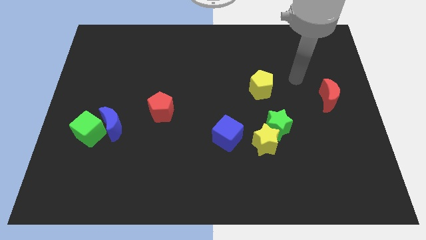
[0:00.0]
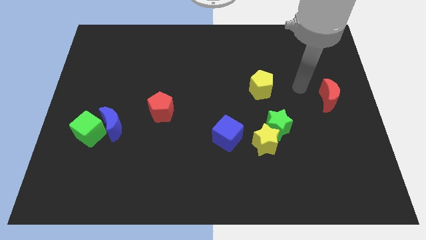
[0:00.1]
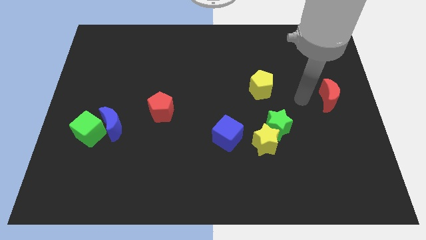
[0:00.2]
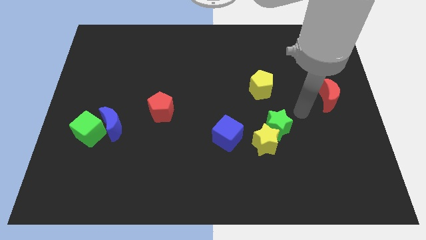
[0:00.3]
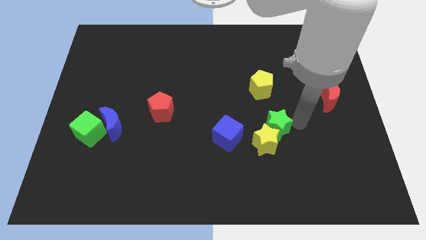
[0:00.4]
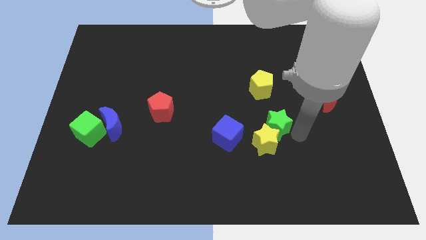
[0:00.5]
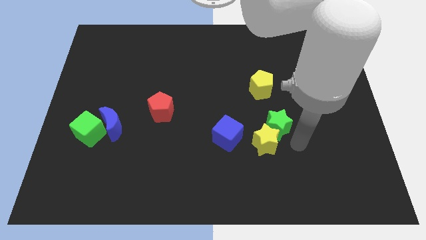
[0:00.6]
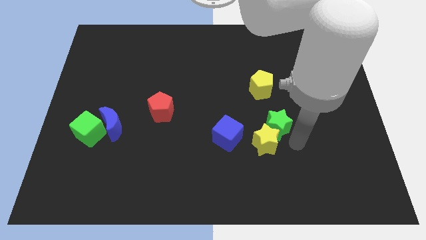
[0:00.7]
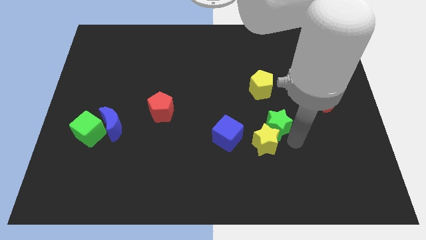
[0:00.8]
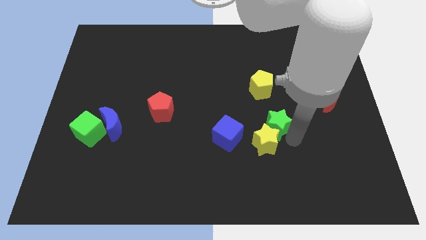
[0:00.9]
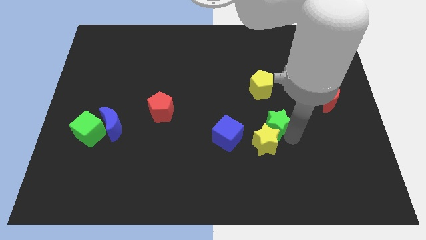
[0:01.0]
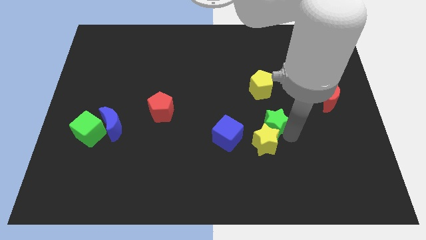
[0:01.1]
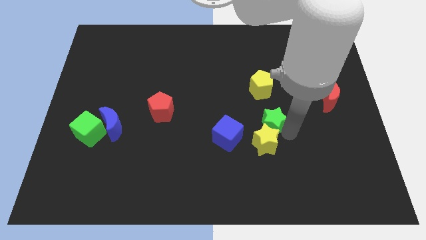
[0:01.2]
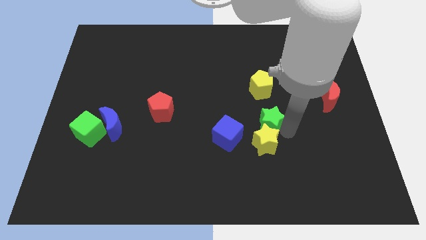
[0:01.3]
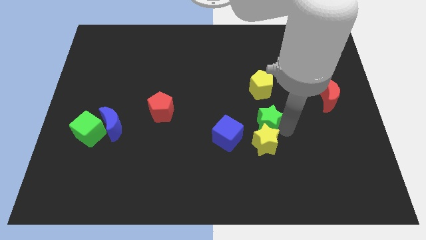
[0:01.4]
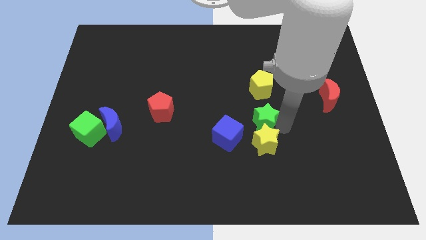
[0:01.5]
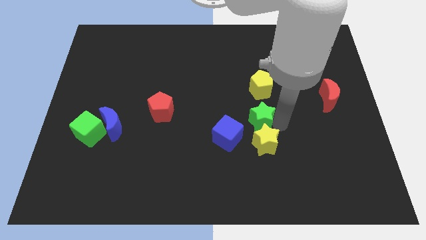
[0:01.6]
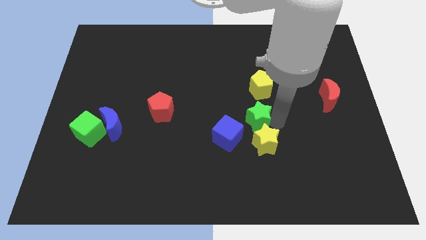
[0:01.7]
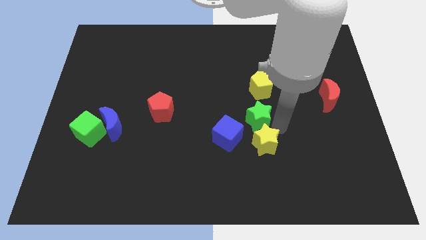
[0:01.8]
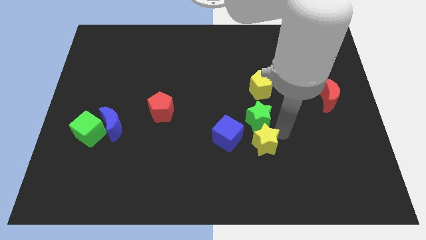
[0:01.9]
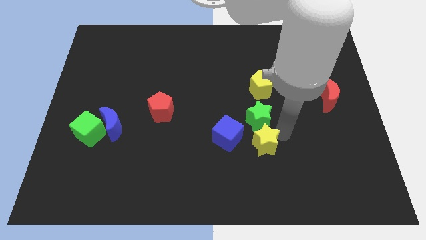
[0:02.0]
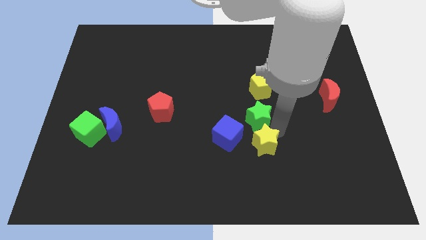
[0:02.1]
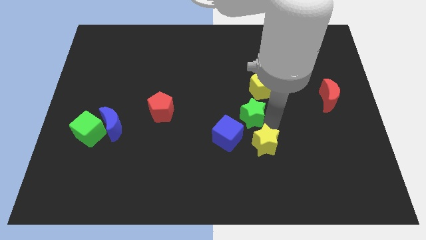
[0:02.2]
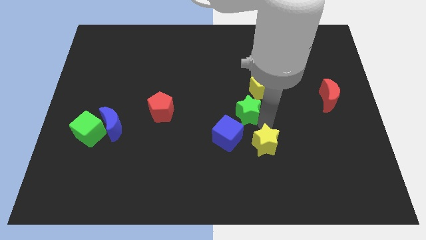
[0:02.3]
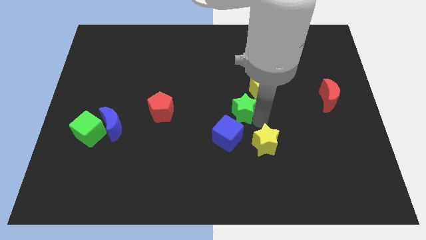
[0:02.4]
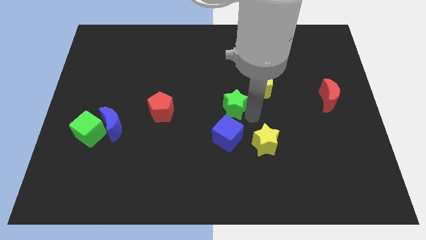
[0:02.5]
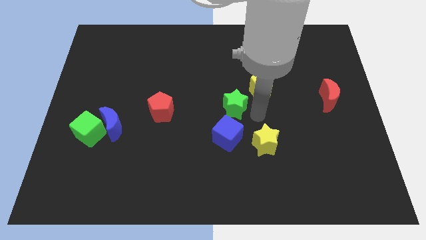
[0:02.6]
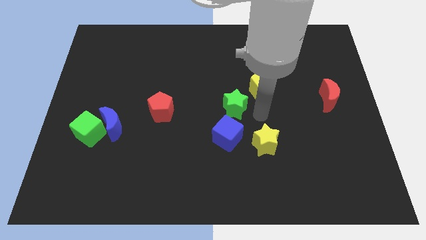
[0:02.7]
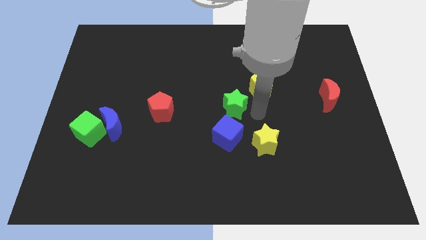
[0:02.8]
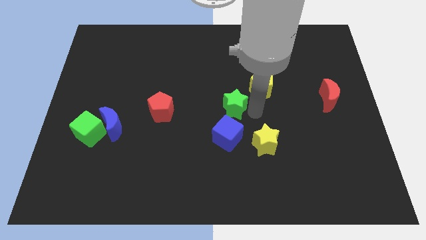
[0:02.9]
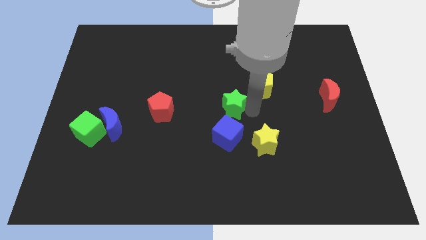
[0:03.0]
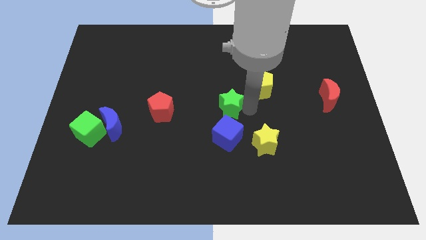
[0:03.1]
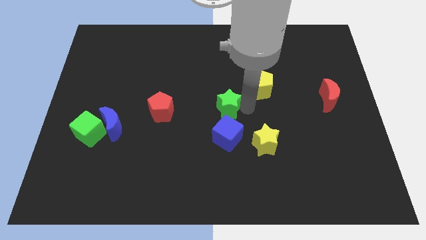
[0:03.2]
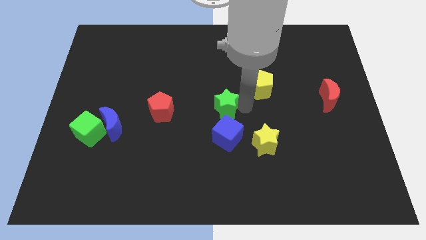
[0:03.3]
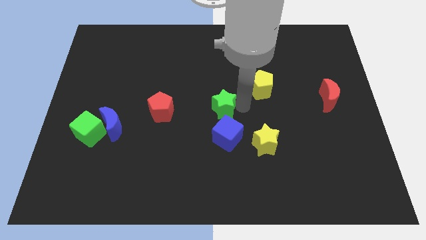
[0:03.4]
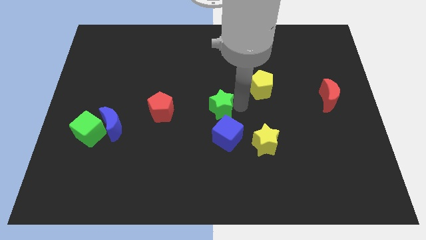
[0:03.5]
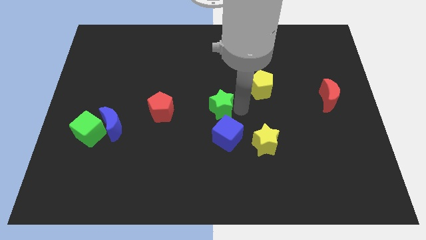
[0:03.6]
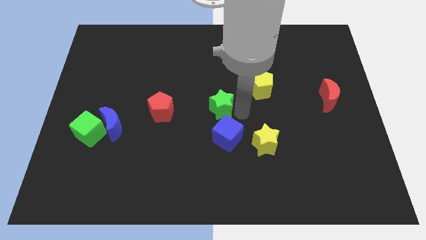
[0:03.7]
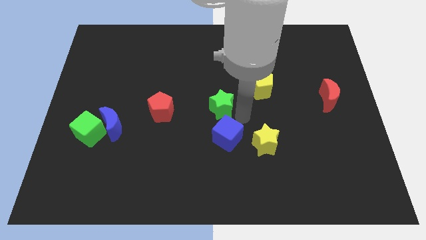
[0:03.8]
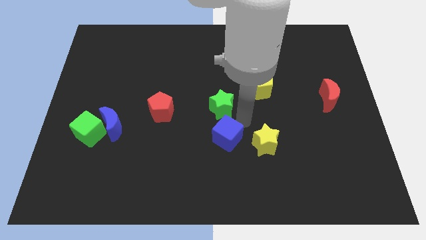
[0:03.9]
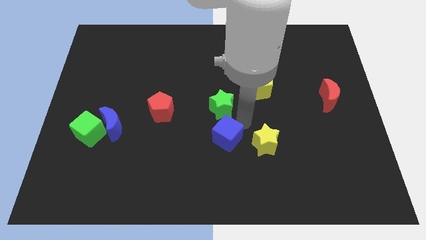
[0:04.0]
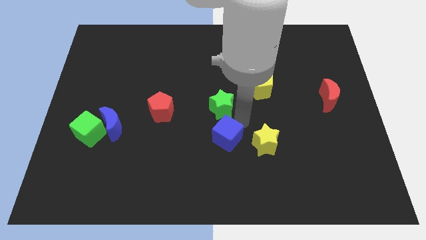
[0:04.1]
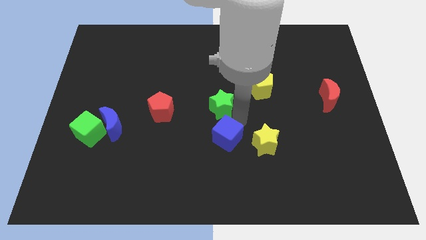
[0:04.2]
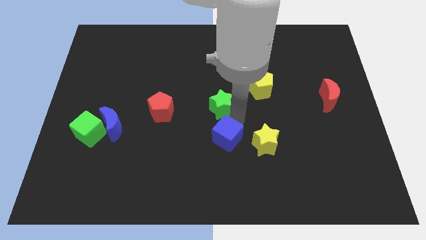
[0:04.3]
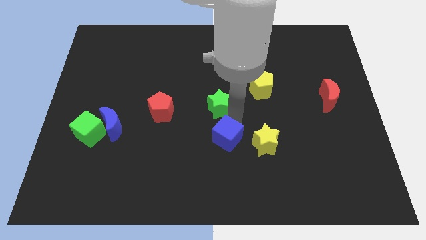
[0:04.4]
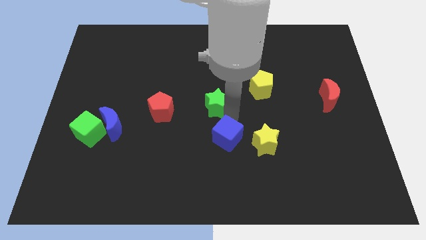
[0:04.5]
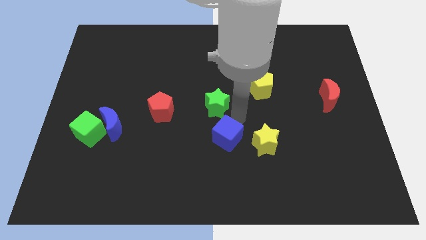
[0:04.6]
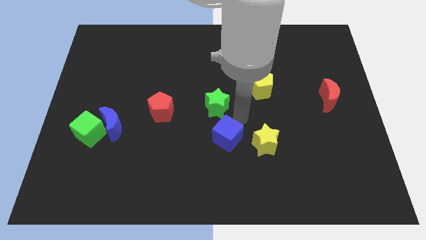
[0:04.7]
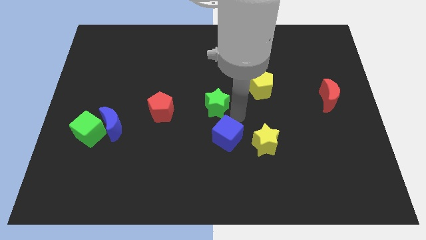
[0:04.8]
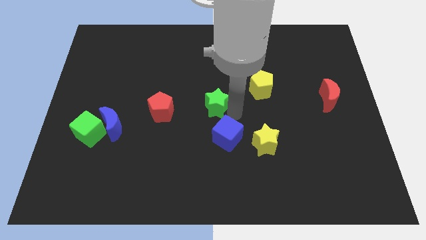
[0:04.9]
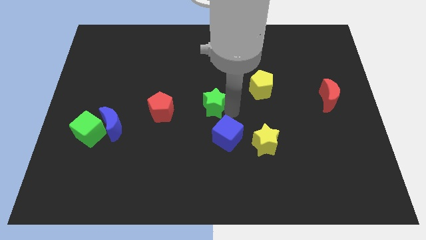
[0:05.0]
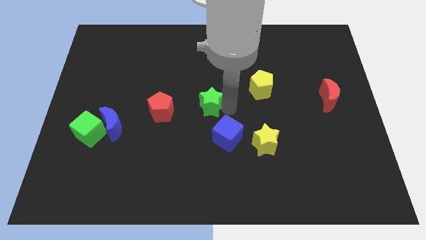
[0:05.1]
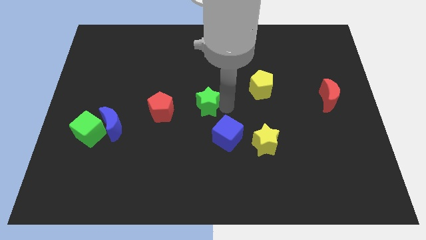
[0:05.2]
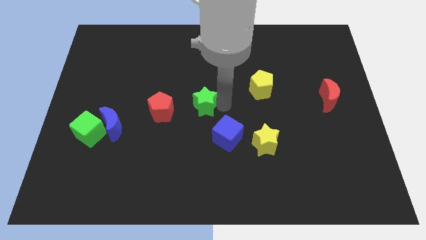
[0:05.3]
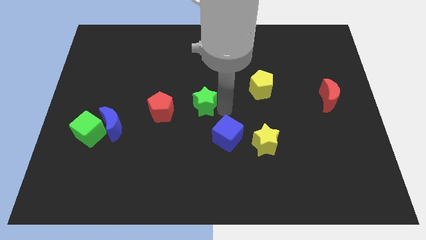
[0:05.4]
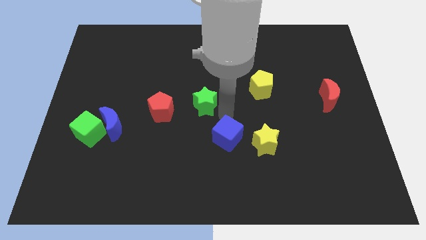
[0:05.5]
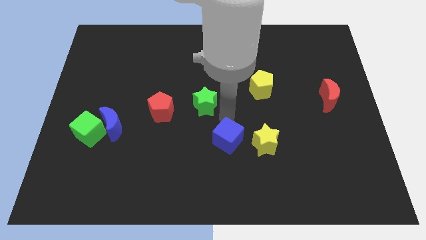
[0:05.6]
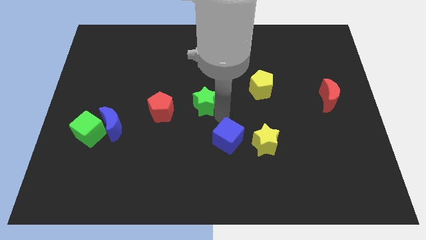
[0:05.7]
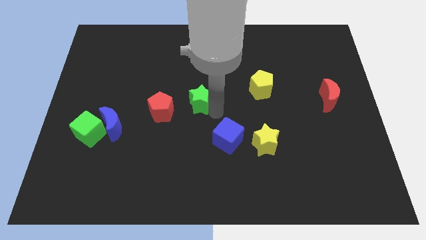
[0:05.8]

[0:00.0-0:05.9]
put the green star diagonally up and to the right of the red pentagon
